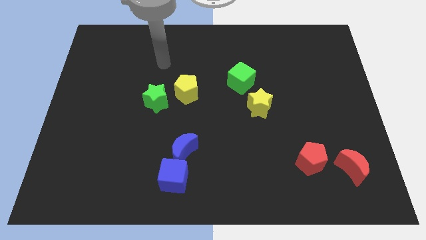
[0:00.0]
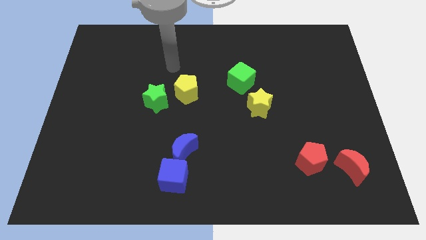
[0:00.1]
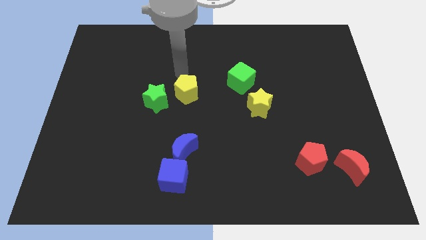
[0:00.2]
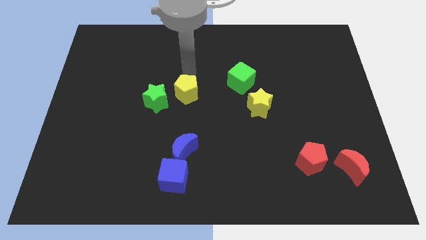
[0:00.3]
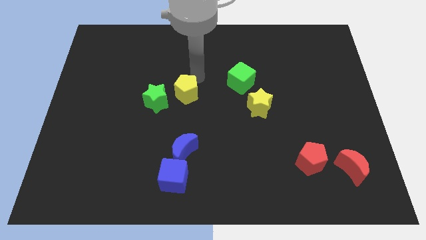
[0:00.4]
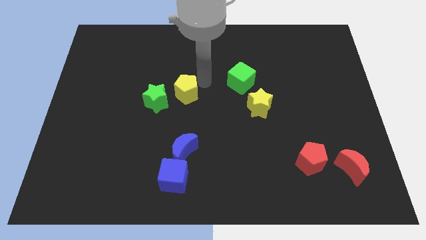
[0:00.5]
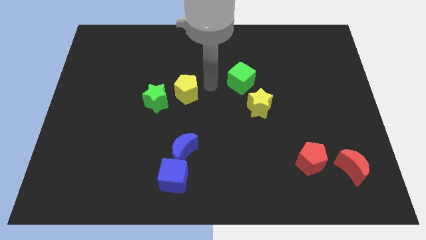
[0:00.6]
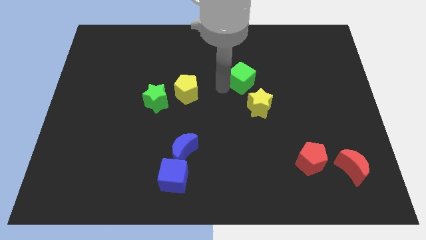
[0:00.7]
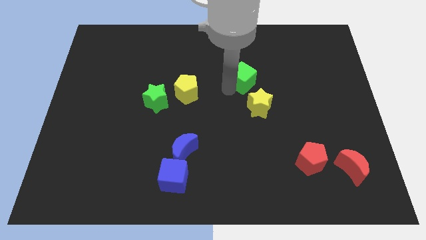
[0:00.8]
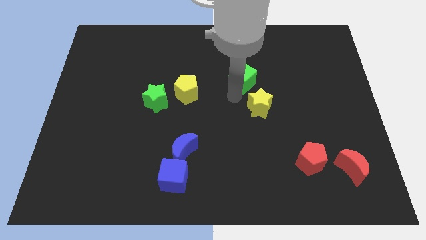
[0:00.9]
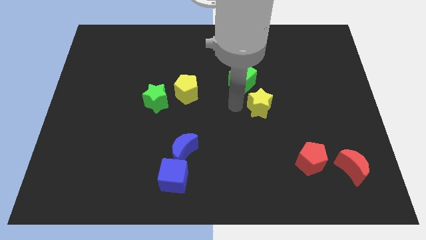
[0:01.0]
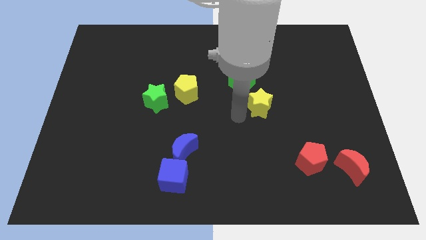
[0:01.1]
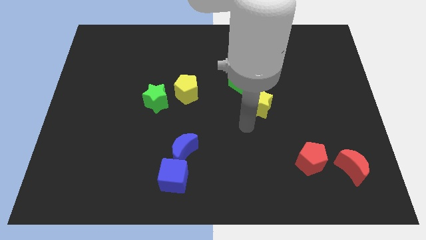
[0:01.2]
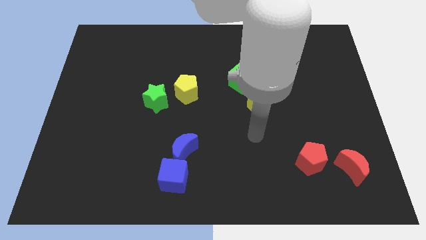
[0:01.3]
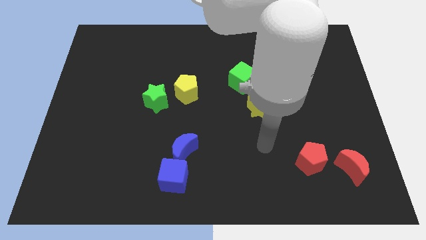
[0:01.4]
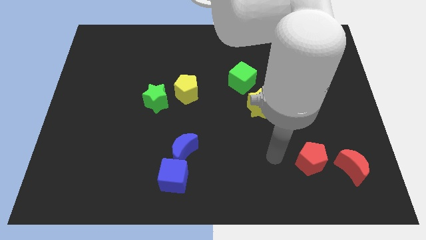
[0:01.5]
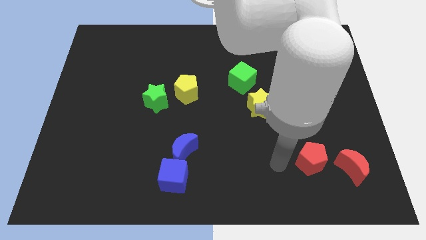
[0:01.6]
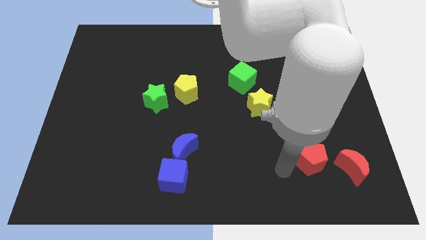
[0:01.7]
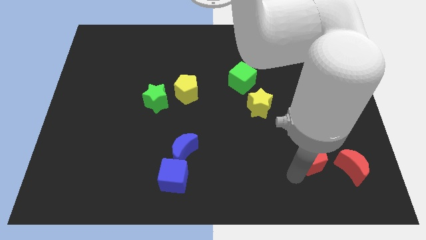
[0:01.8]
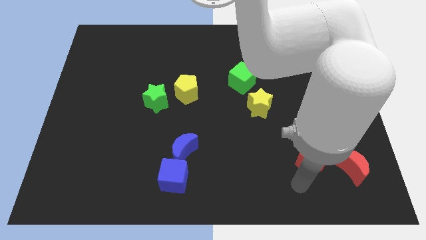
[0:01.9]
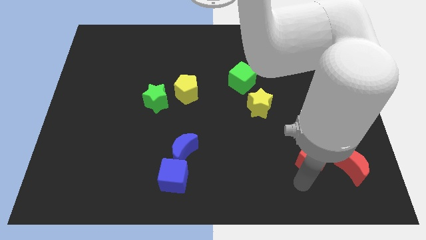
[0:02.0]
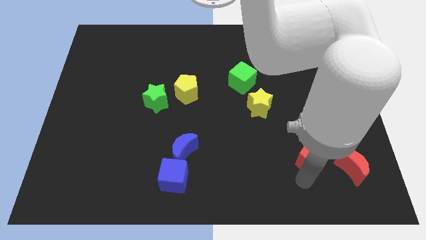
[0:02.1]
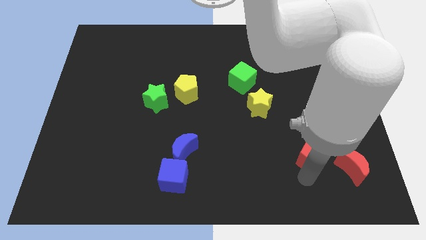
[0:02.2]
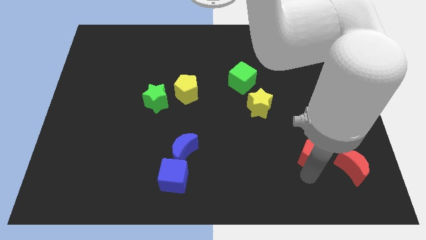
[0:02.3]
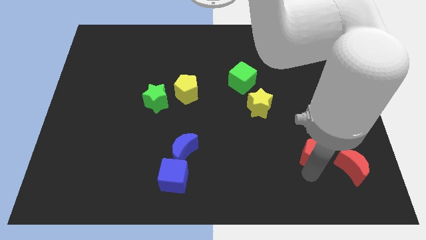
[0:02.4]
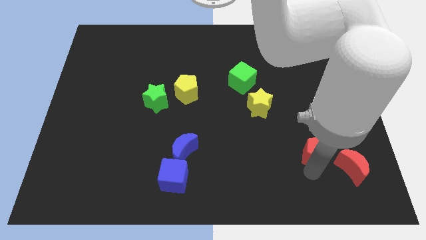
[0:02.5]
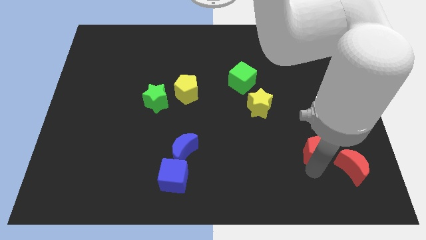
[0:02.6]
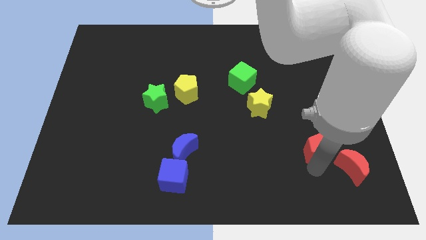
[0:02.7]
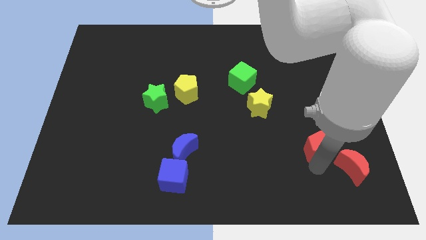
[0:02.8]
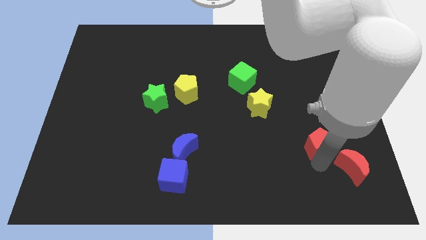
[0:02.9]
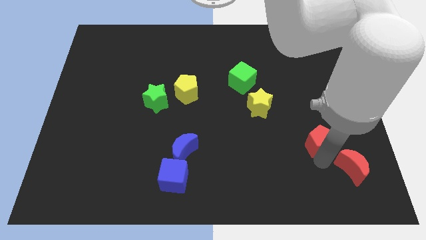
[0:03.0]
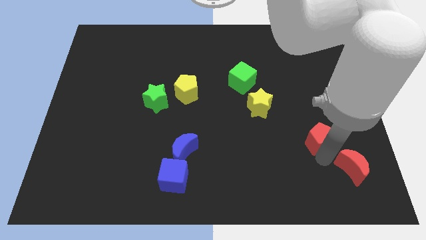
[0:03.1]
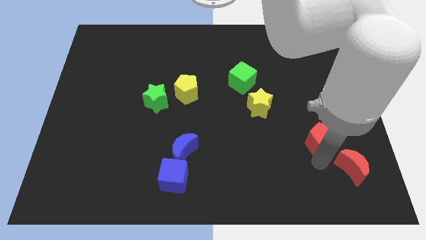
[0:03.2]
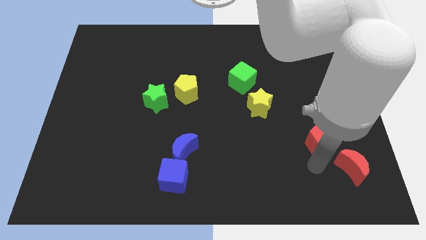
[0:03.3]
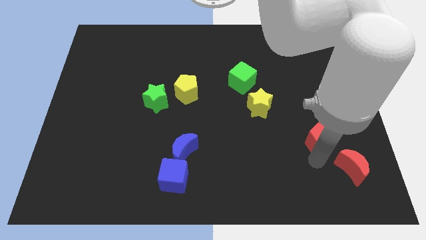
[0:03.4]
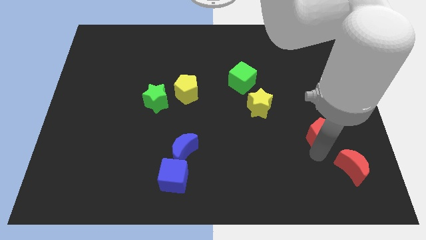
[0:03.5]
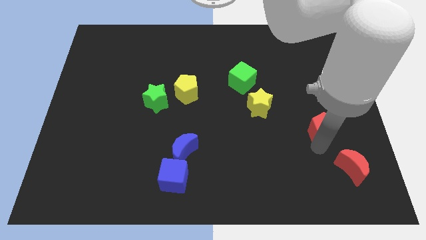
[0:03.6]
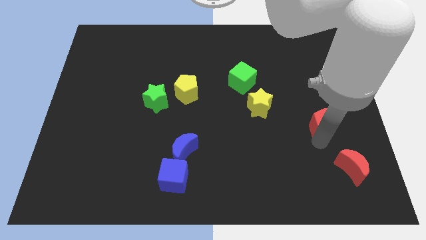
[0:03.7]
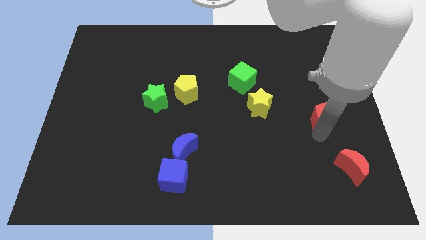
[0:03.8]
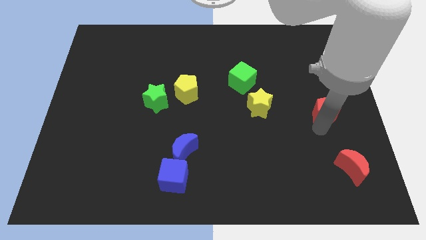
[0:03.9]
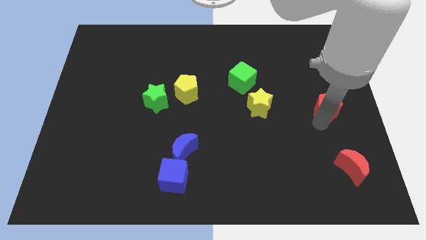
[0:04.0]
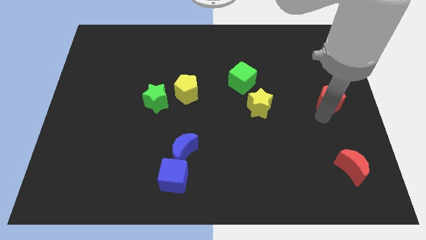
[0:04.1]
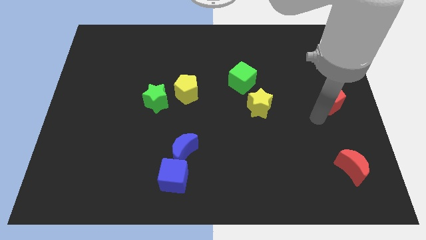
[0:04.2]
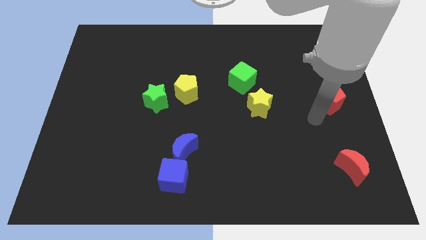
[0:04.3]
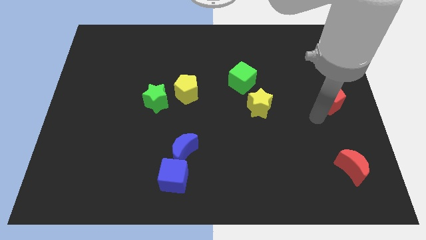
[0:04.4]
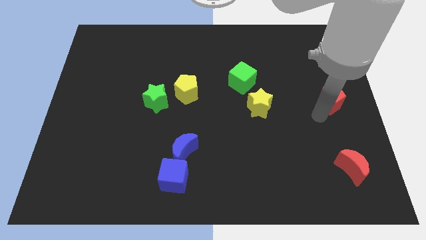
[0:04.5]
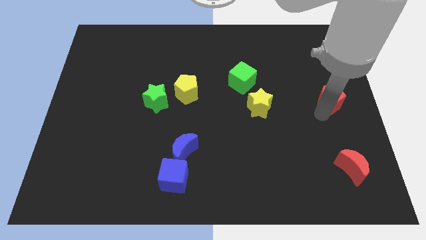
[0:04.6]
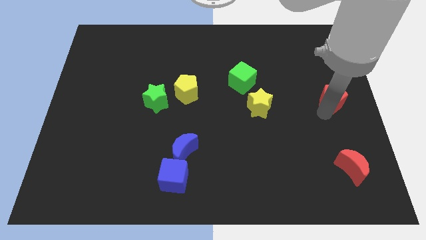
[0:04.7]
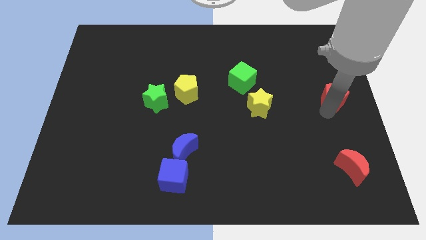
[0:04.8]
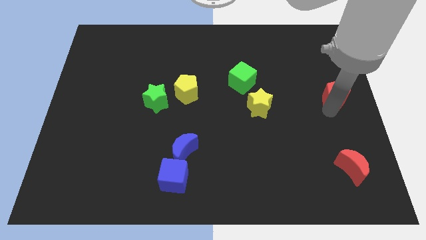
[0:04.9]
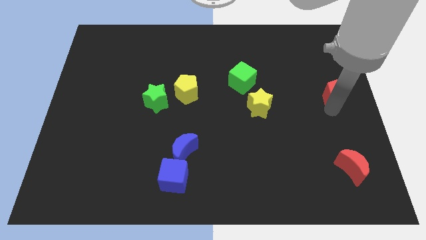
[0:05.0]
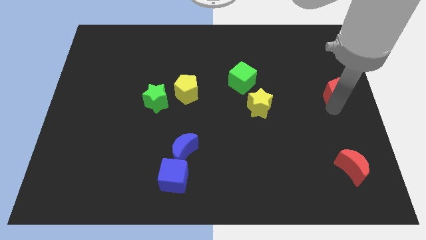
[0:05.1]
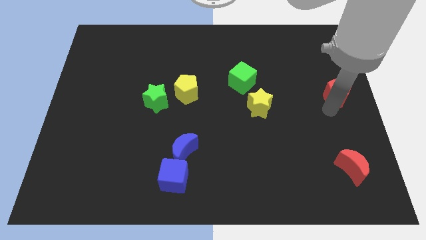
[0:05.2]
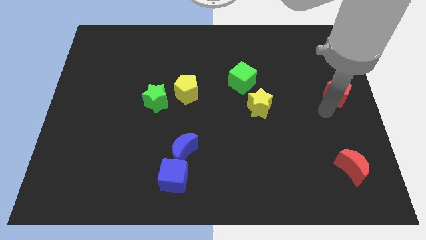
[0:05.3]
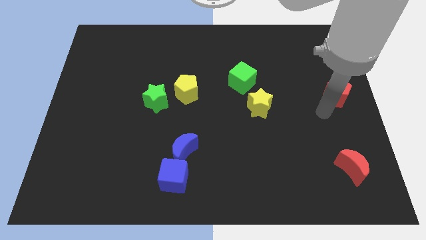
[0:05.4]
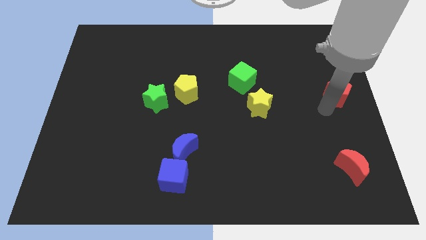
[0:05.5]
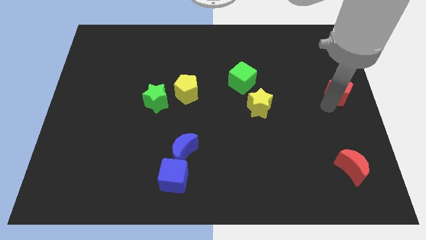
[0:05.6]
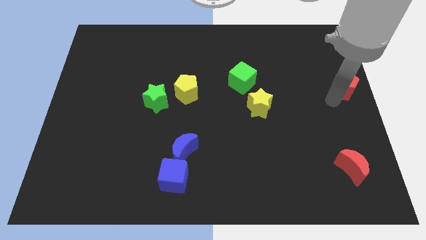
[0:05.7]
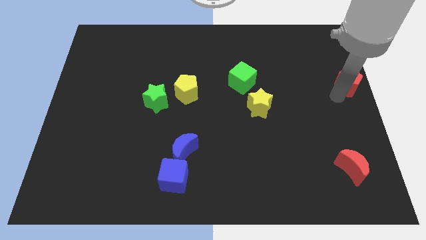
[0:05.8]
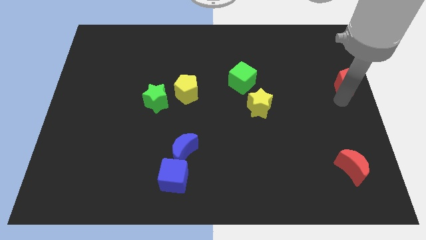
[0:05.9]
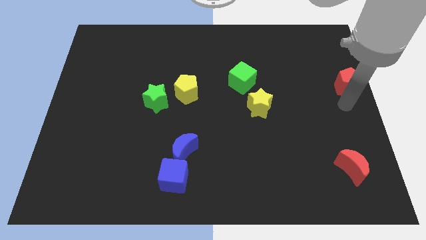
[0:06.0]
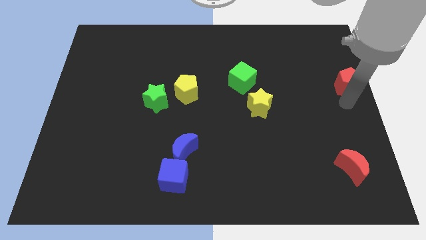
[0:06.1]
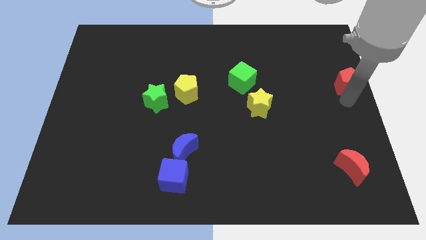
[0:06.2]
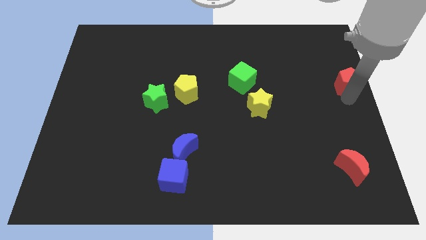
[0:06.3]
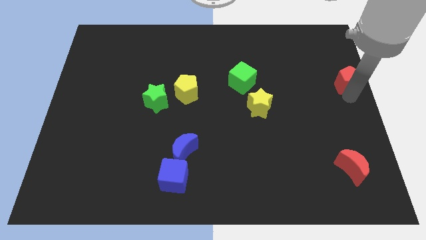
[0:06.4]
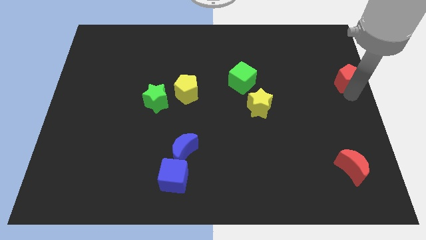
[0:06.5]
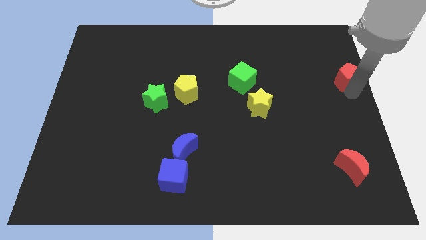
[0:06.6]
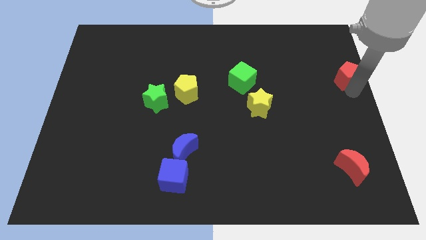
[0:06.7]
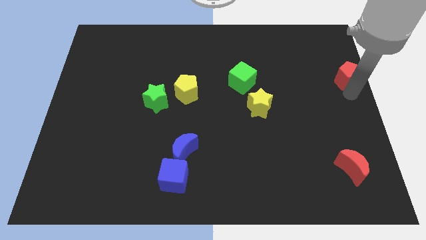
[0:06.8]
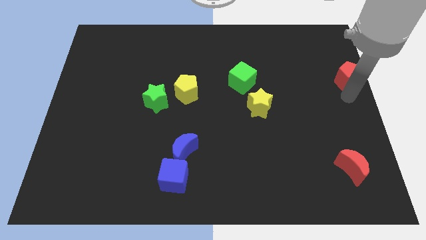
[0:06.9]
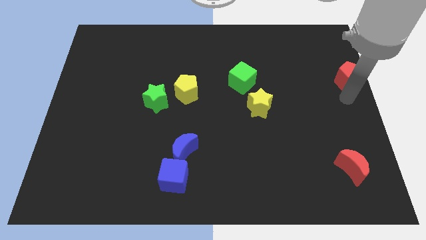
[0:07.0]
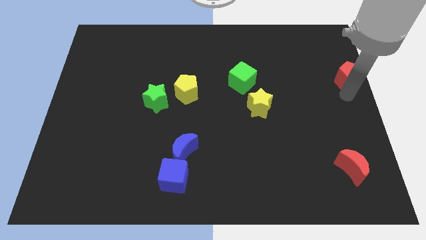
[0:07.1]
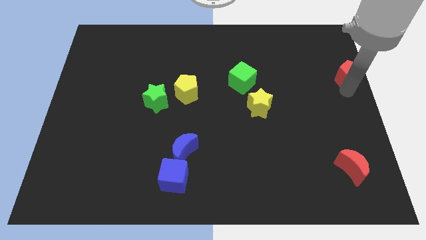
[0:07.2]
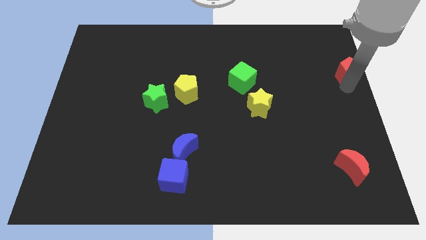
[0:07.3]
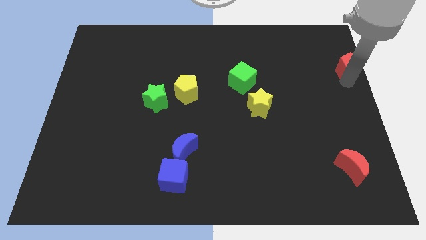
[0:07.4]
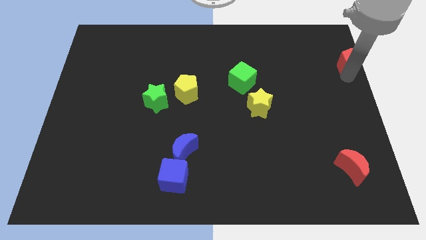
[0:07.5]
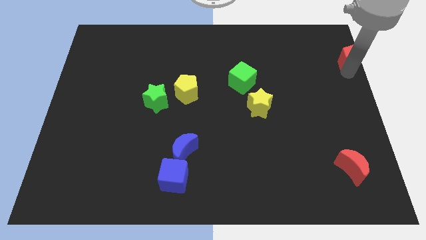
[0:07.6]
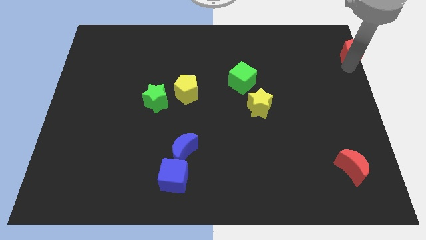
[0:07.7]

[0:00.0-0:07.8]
move the red pentagon to the upper right corner
